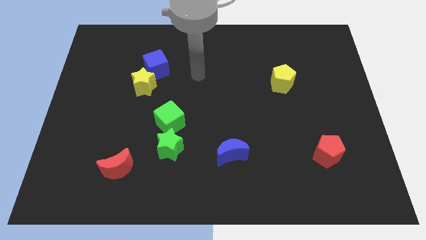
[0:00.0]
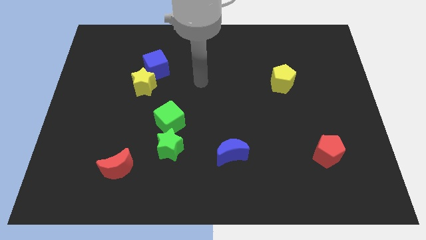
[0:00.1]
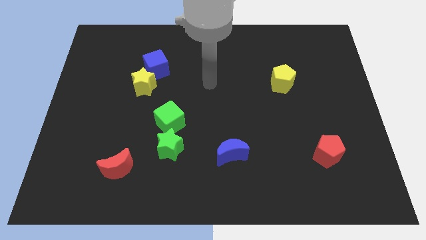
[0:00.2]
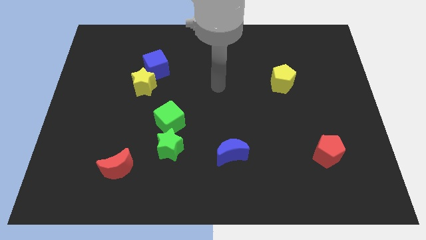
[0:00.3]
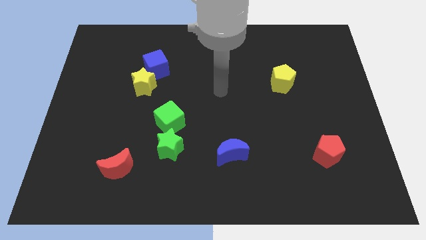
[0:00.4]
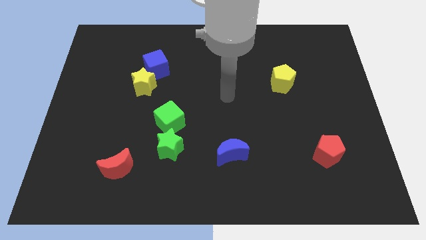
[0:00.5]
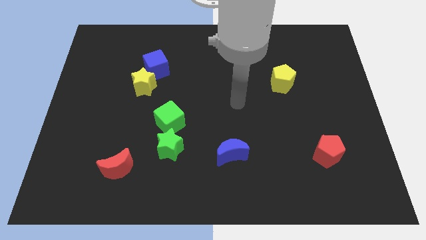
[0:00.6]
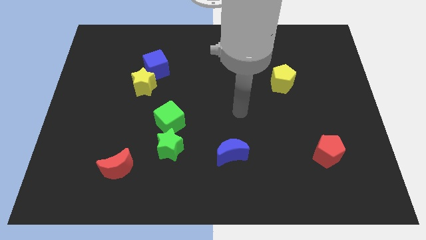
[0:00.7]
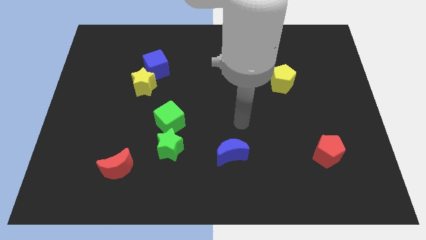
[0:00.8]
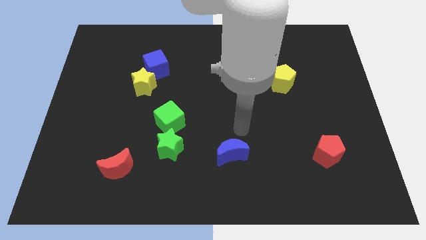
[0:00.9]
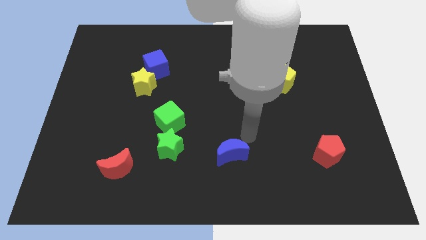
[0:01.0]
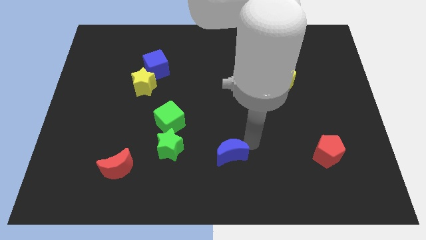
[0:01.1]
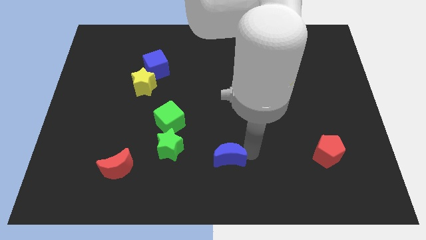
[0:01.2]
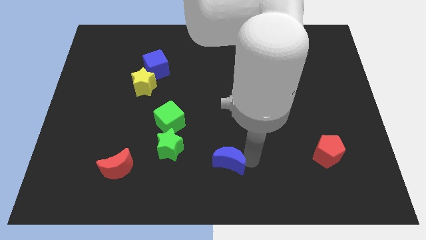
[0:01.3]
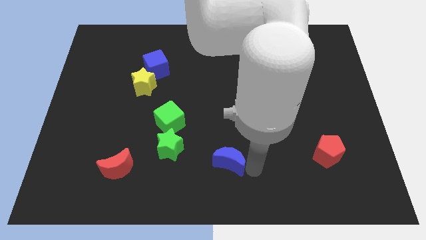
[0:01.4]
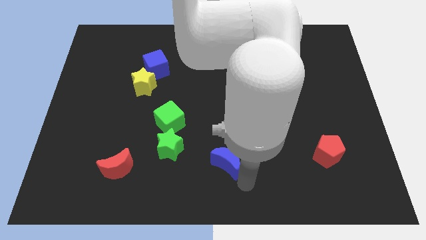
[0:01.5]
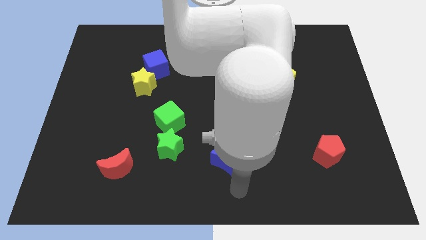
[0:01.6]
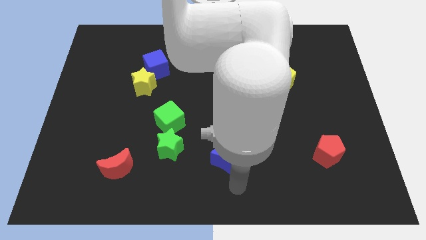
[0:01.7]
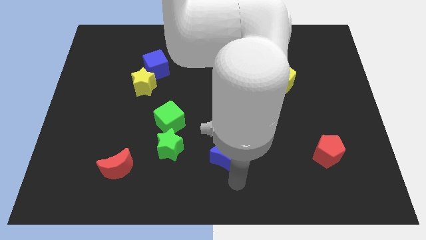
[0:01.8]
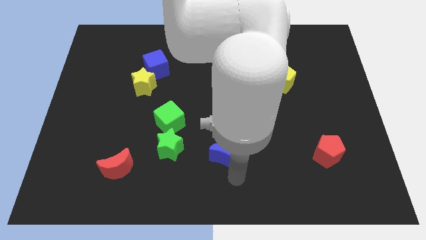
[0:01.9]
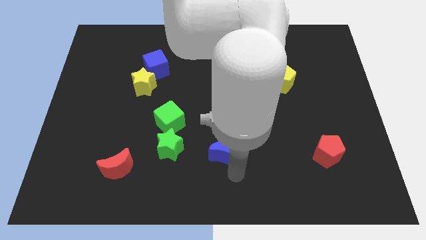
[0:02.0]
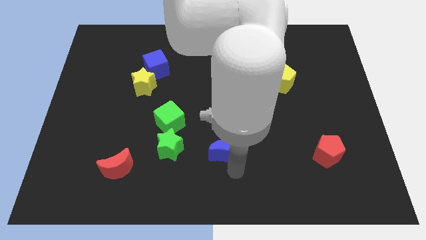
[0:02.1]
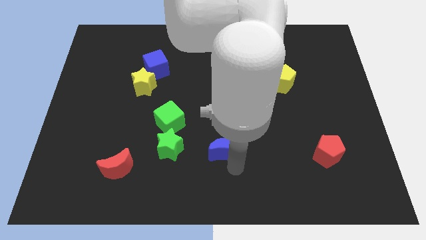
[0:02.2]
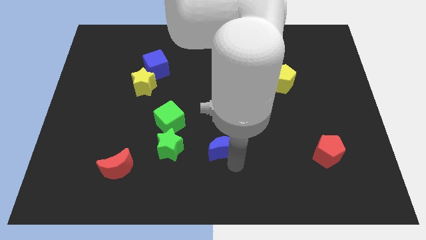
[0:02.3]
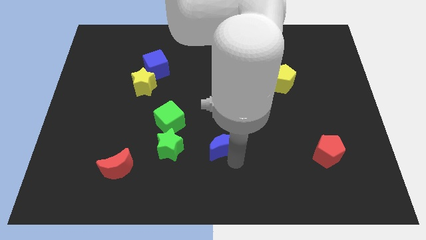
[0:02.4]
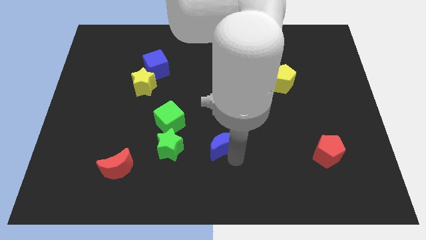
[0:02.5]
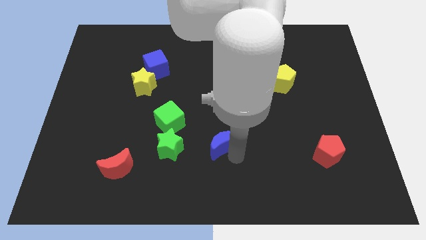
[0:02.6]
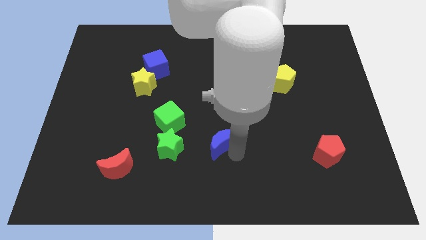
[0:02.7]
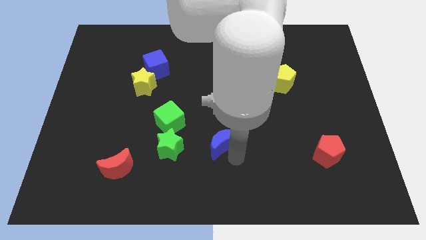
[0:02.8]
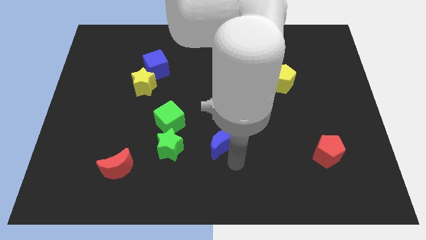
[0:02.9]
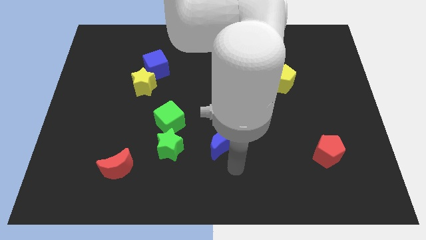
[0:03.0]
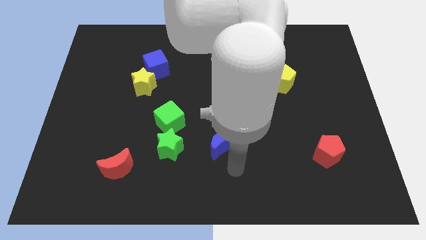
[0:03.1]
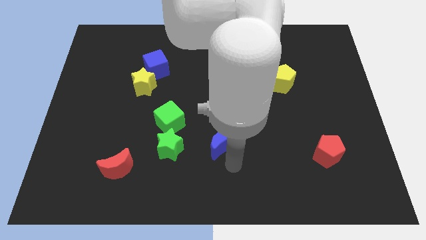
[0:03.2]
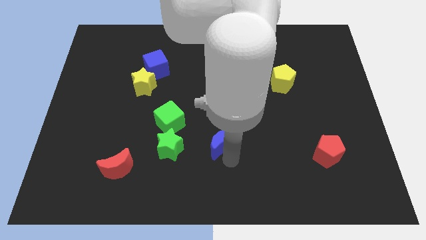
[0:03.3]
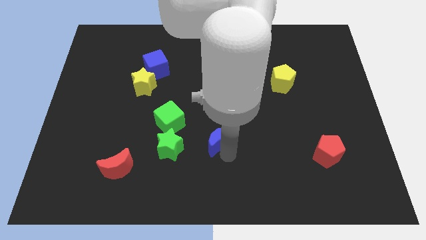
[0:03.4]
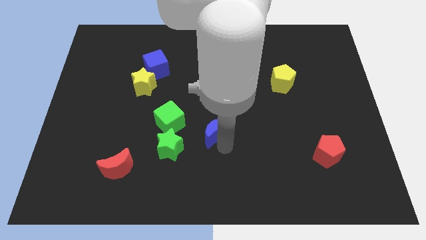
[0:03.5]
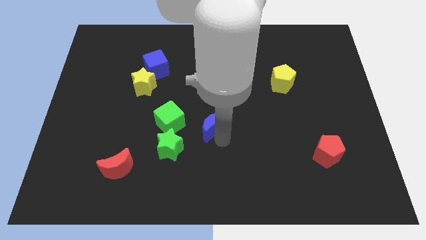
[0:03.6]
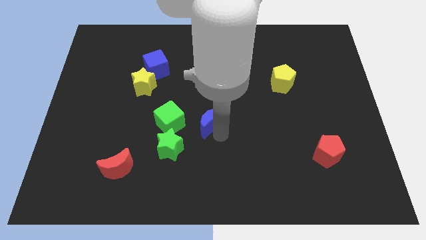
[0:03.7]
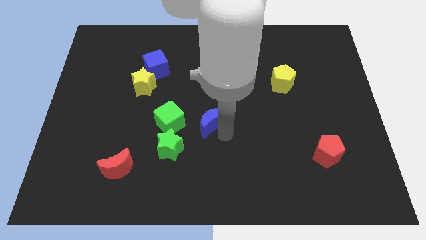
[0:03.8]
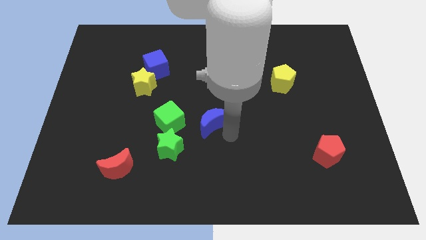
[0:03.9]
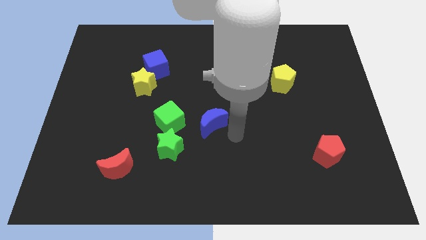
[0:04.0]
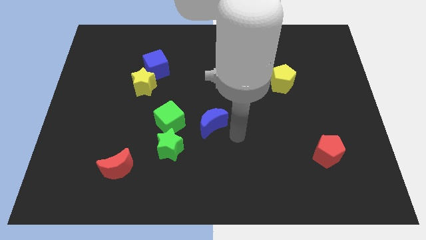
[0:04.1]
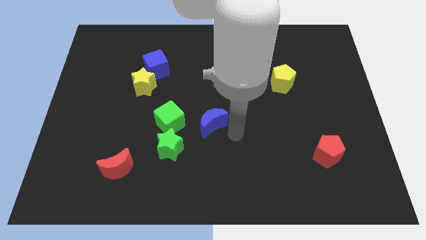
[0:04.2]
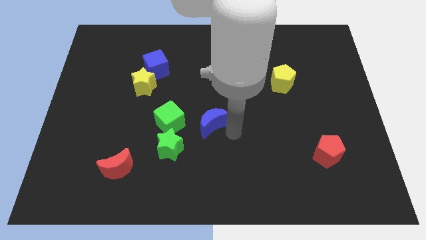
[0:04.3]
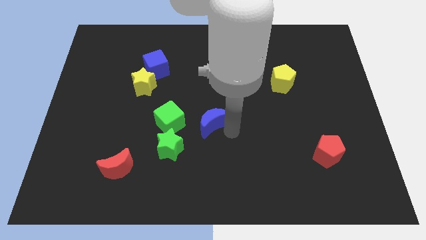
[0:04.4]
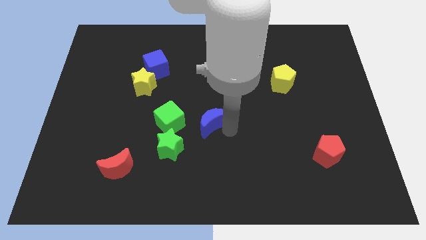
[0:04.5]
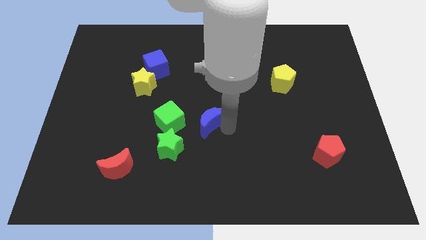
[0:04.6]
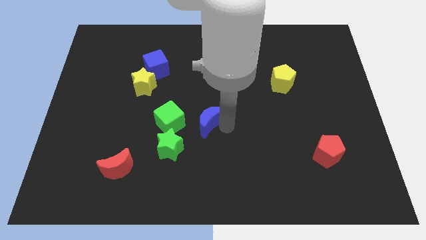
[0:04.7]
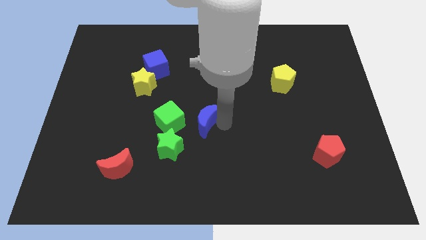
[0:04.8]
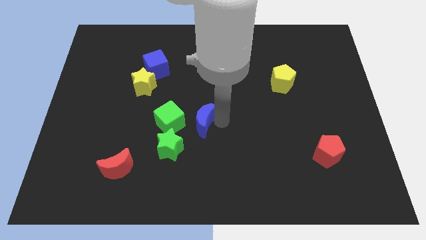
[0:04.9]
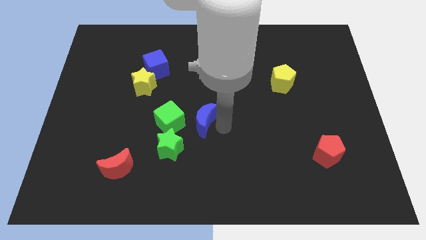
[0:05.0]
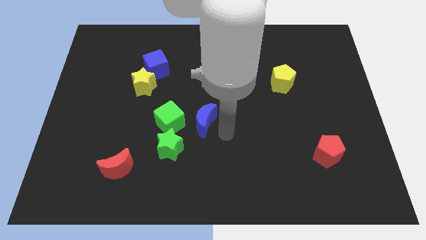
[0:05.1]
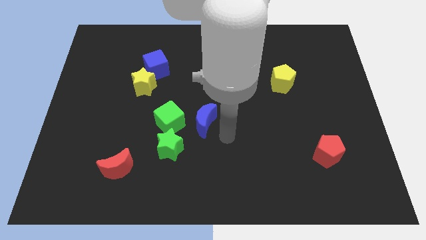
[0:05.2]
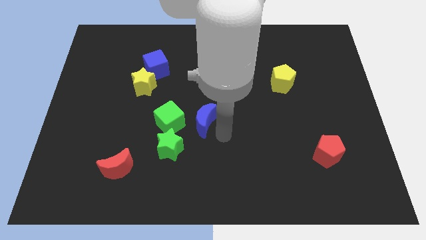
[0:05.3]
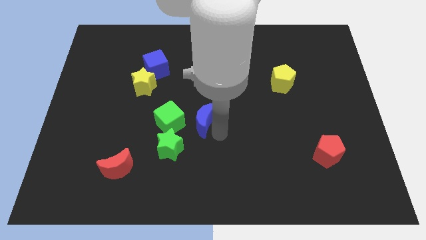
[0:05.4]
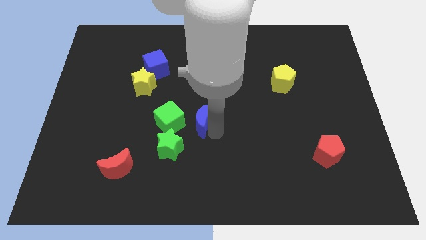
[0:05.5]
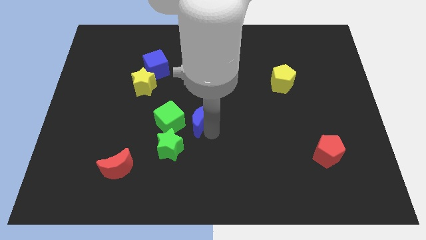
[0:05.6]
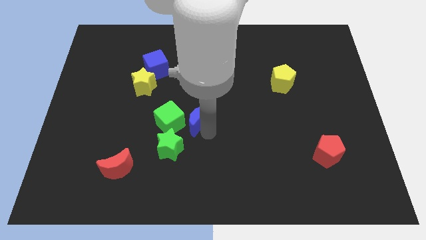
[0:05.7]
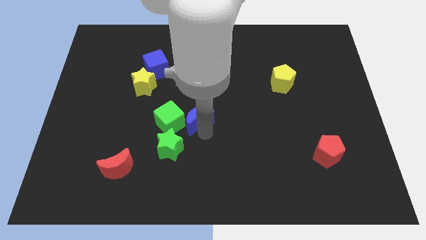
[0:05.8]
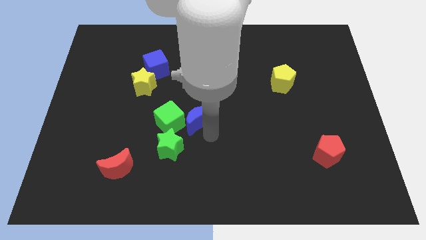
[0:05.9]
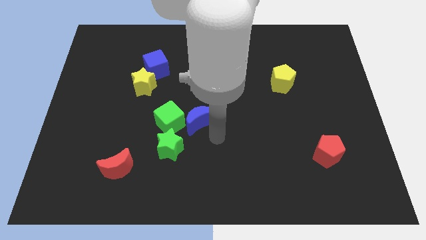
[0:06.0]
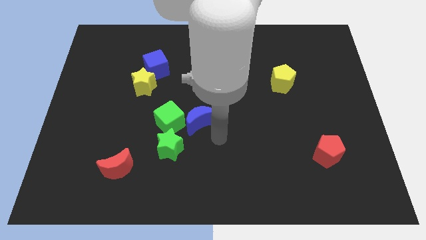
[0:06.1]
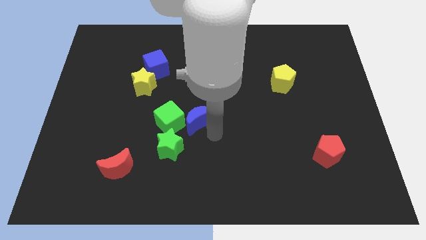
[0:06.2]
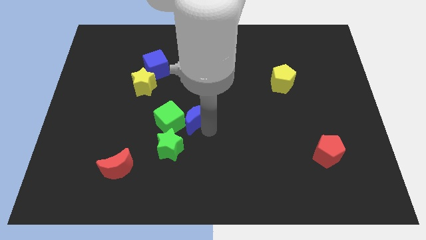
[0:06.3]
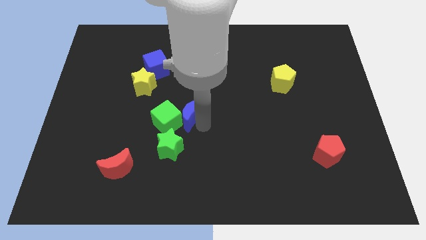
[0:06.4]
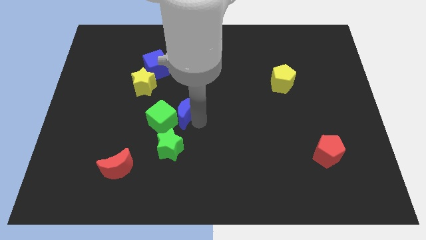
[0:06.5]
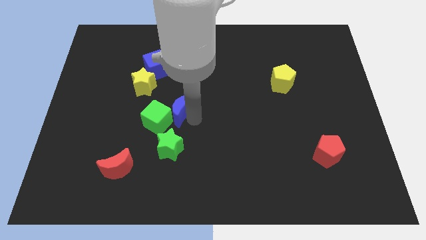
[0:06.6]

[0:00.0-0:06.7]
put the blue moon diagonally down and to the right of the yellow star
